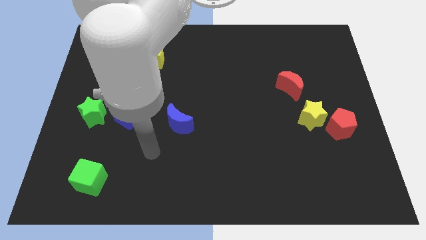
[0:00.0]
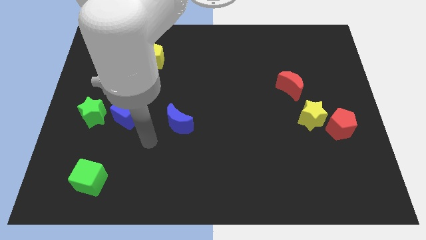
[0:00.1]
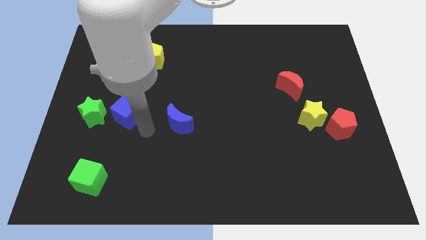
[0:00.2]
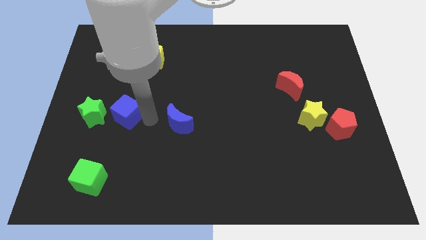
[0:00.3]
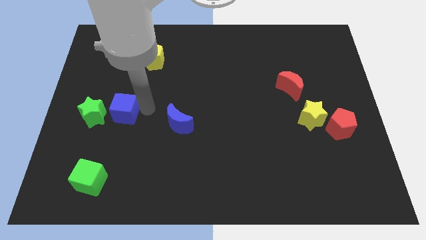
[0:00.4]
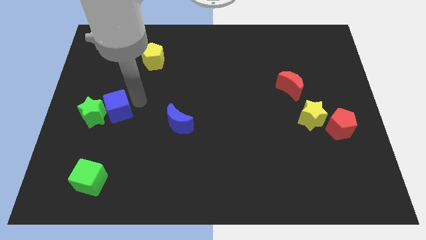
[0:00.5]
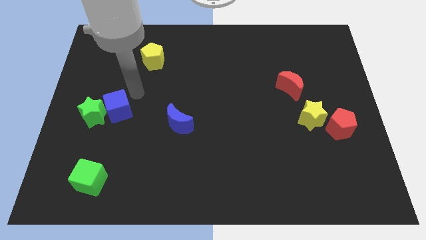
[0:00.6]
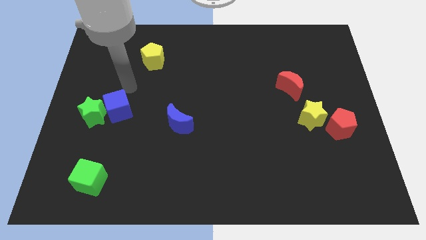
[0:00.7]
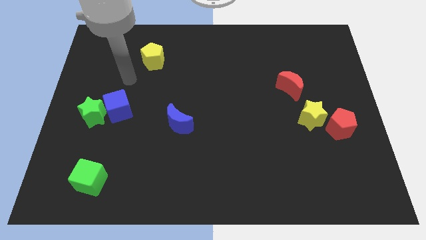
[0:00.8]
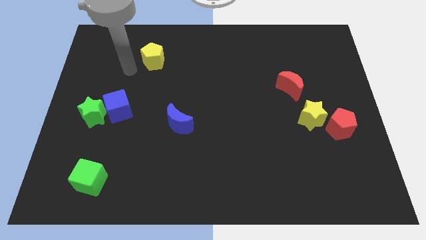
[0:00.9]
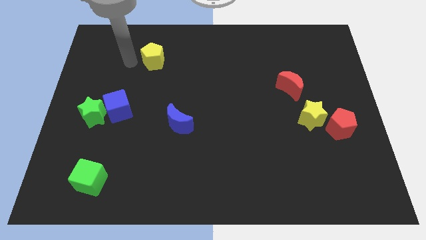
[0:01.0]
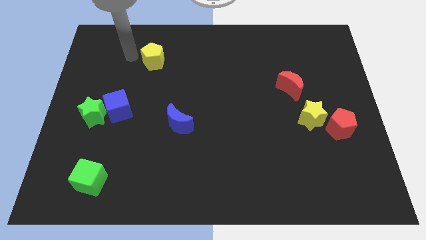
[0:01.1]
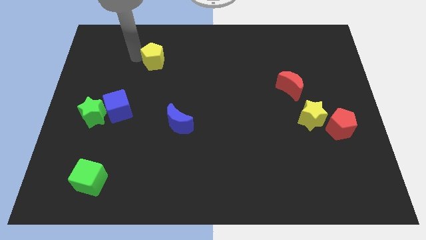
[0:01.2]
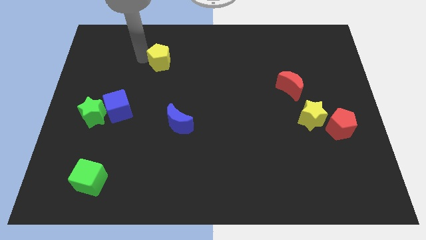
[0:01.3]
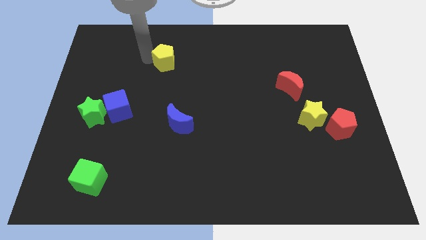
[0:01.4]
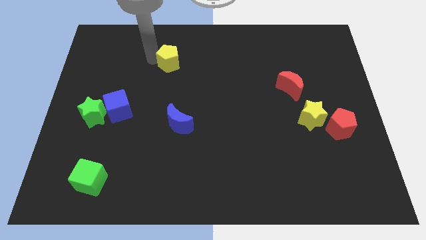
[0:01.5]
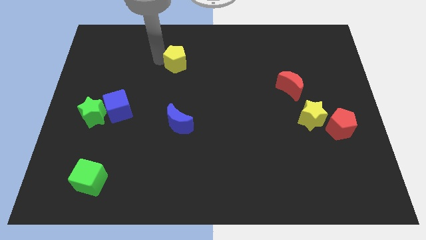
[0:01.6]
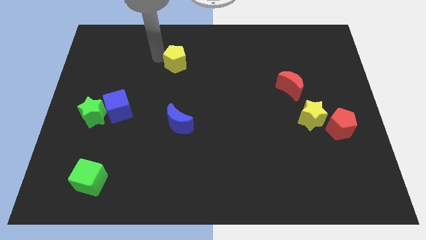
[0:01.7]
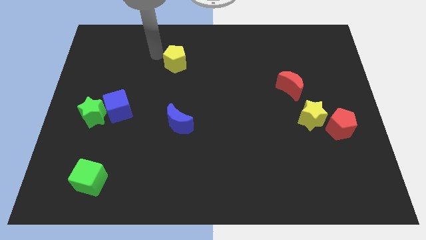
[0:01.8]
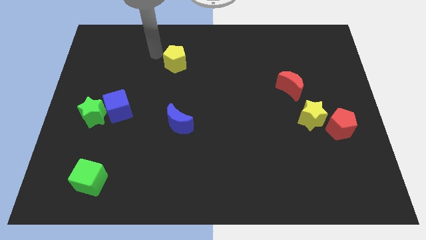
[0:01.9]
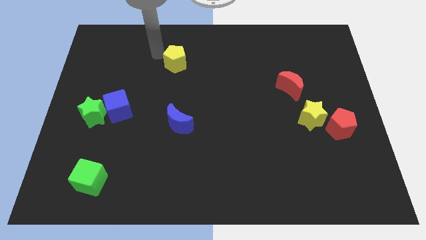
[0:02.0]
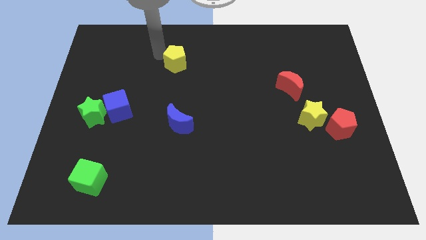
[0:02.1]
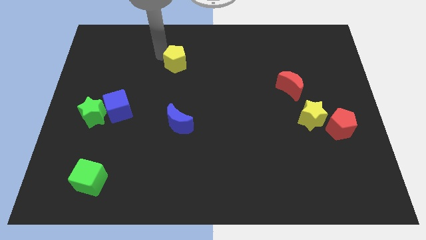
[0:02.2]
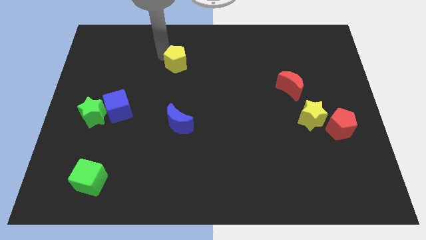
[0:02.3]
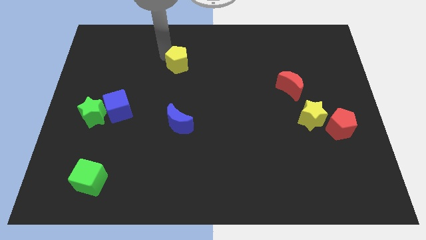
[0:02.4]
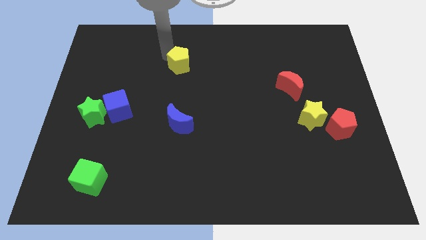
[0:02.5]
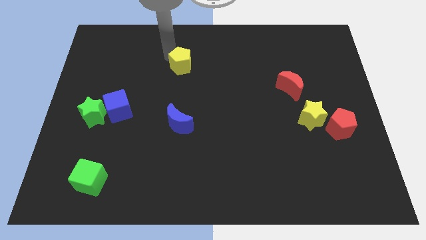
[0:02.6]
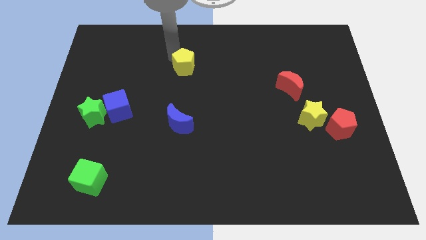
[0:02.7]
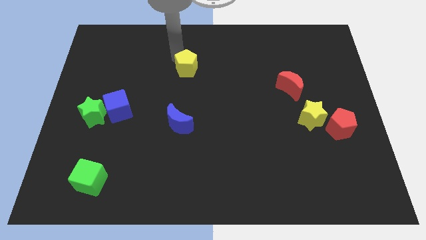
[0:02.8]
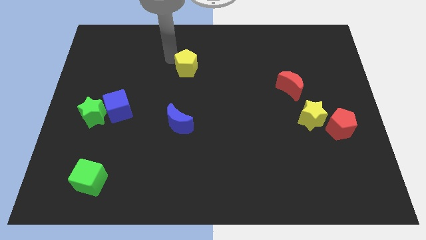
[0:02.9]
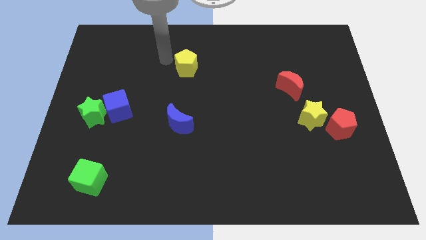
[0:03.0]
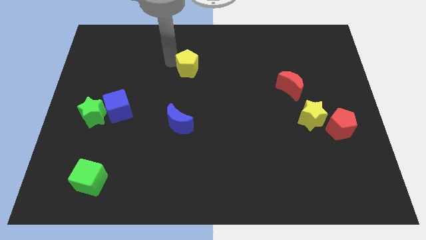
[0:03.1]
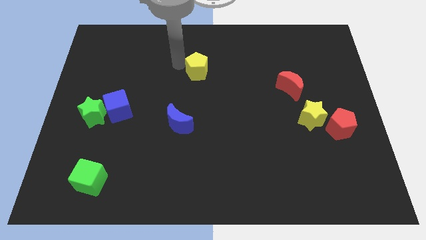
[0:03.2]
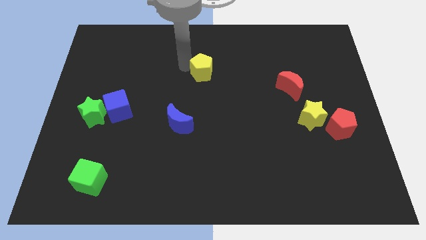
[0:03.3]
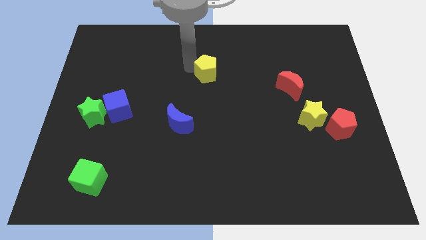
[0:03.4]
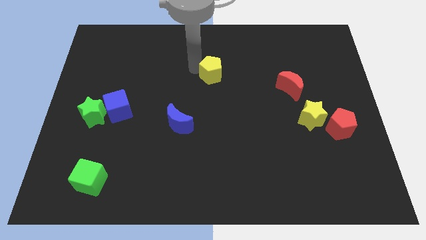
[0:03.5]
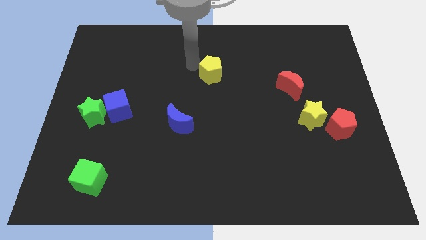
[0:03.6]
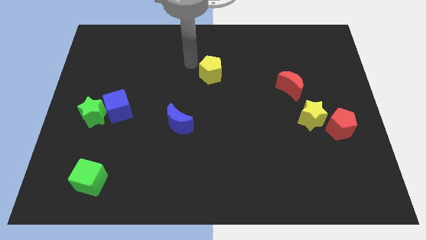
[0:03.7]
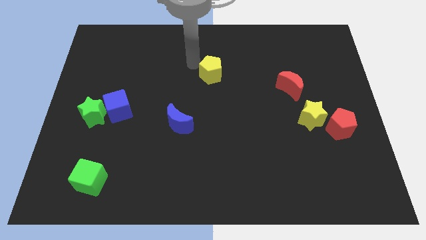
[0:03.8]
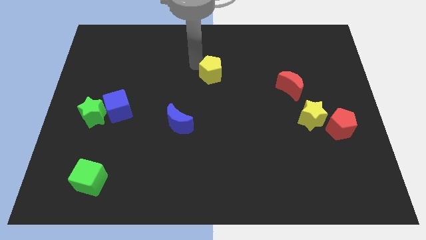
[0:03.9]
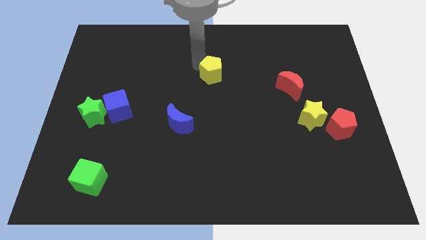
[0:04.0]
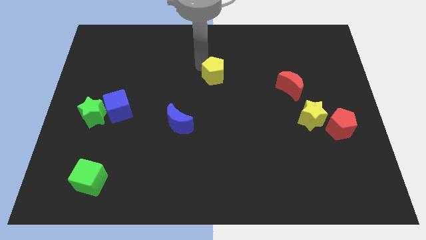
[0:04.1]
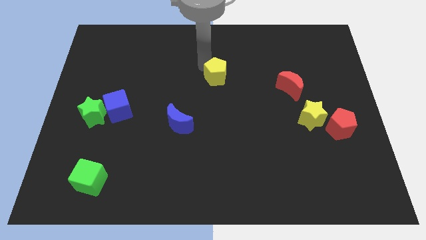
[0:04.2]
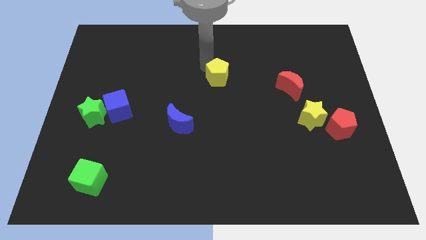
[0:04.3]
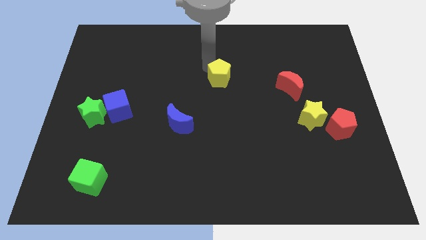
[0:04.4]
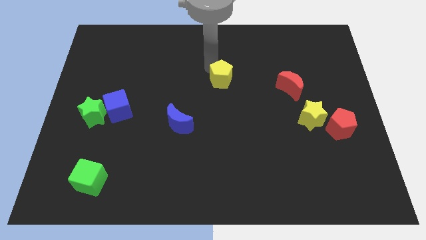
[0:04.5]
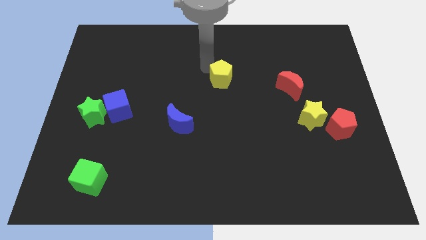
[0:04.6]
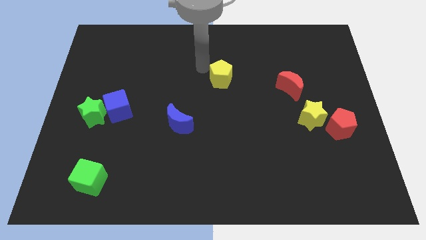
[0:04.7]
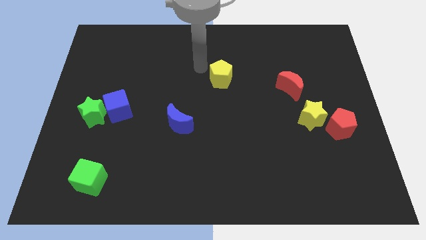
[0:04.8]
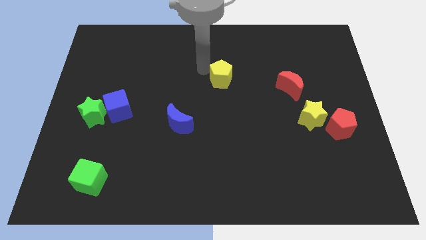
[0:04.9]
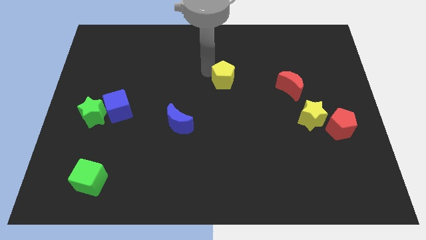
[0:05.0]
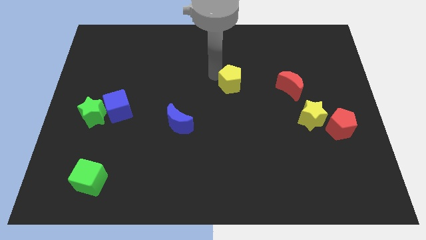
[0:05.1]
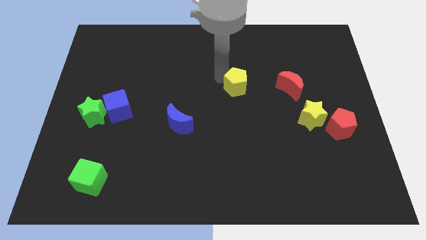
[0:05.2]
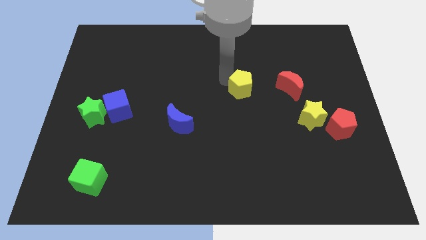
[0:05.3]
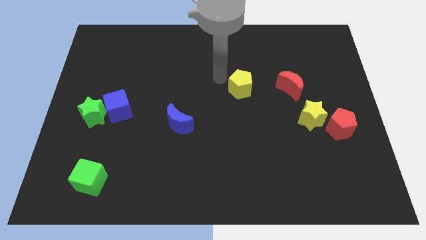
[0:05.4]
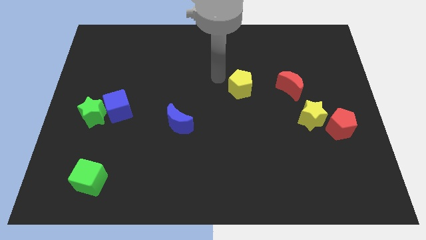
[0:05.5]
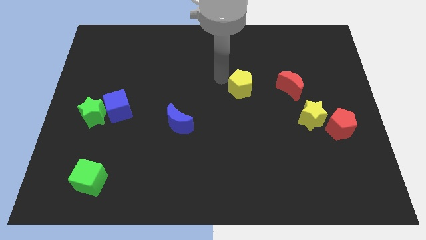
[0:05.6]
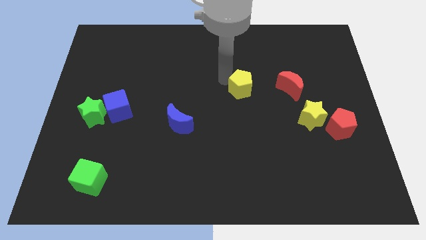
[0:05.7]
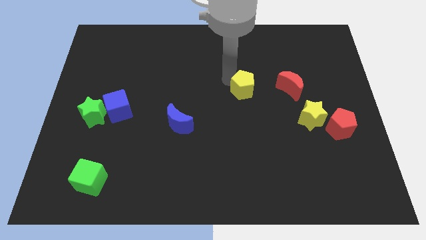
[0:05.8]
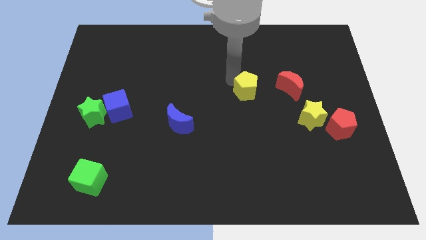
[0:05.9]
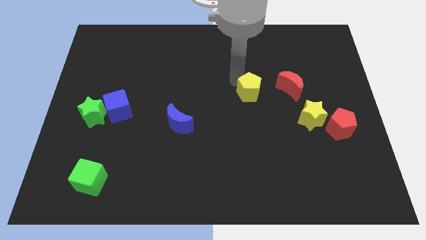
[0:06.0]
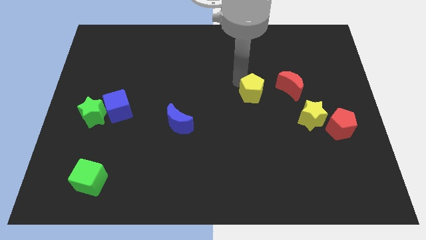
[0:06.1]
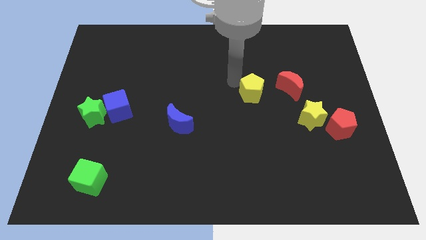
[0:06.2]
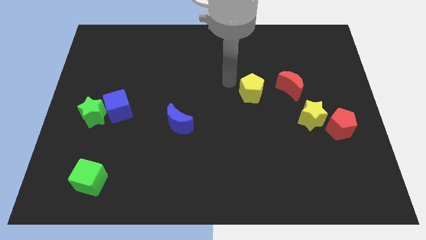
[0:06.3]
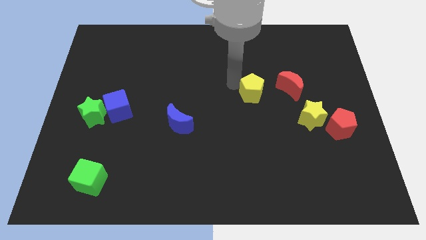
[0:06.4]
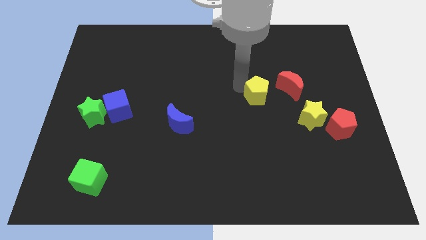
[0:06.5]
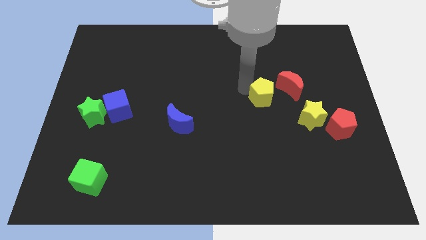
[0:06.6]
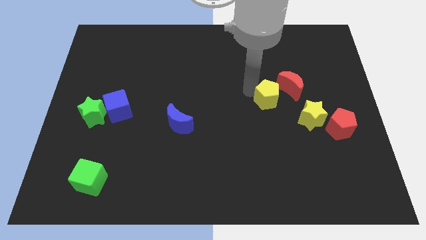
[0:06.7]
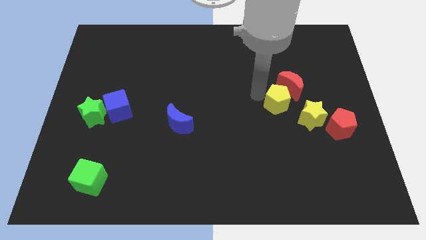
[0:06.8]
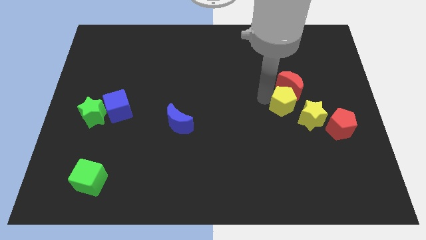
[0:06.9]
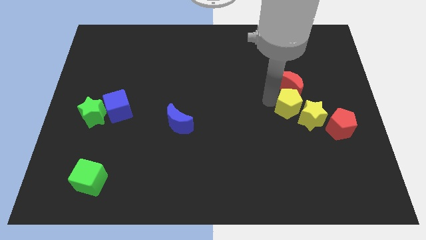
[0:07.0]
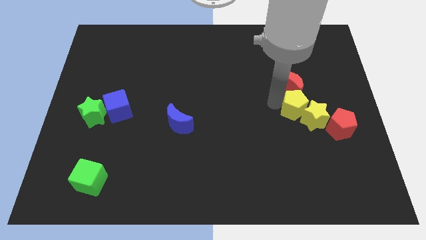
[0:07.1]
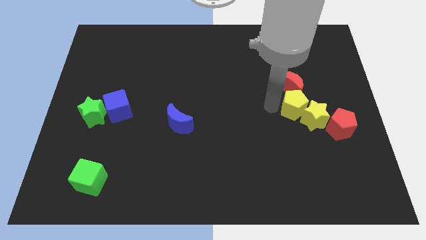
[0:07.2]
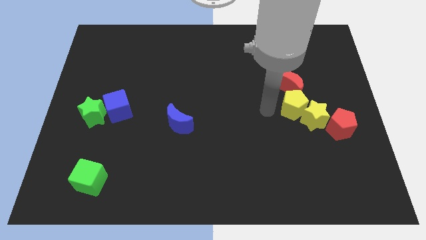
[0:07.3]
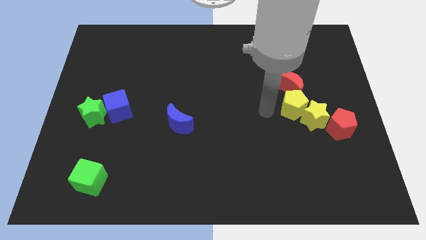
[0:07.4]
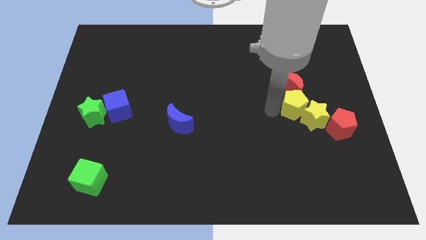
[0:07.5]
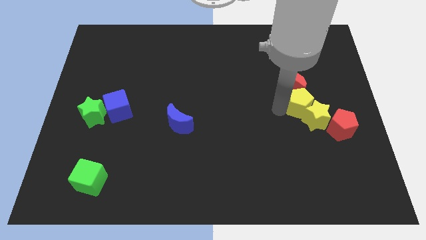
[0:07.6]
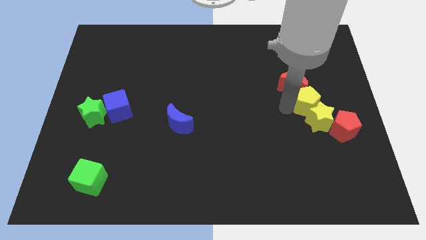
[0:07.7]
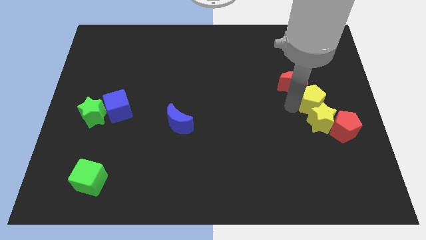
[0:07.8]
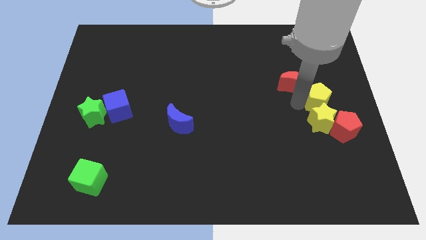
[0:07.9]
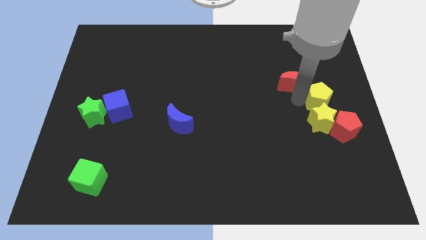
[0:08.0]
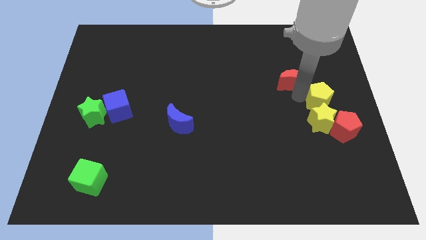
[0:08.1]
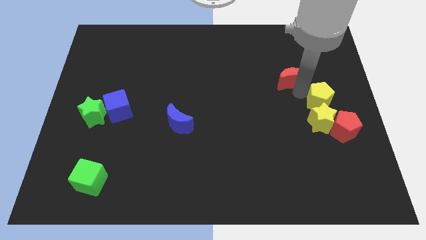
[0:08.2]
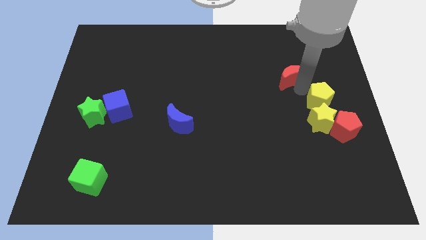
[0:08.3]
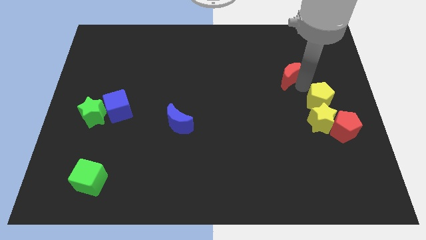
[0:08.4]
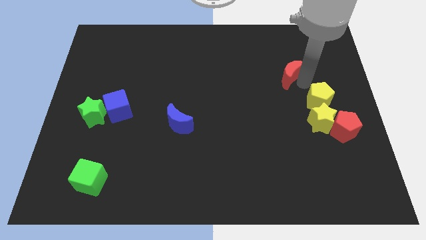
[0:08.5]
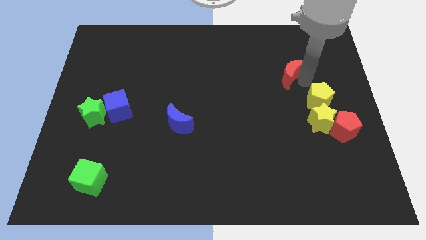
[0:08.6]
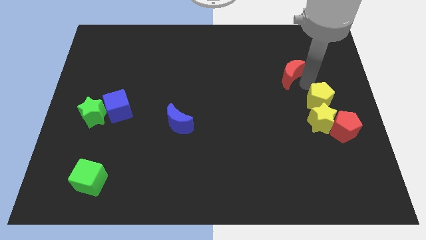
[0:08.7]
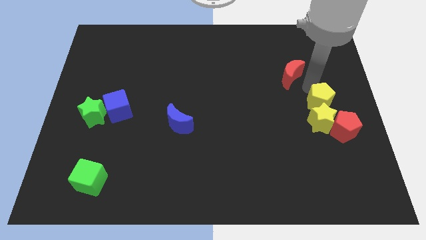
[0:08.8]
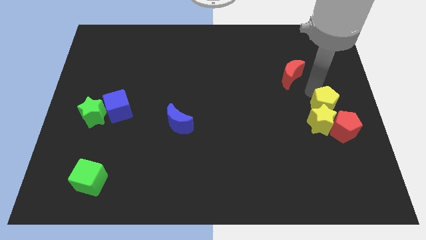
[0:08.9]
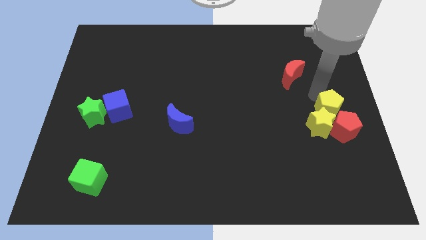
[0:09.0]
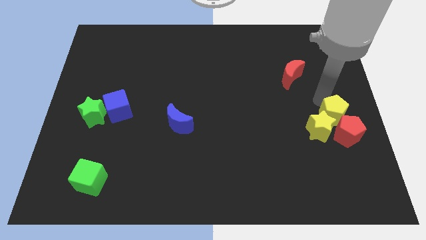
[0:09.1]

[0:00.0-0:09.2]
push the yellow pentagon close to the red pentagon
